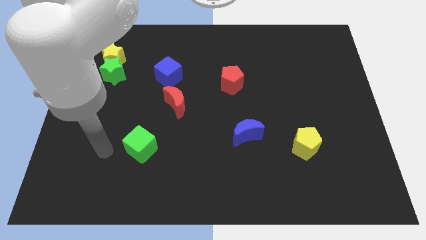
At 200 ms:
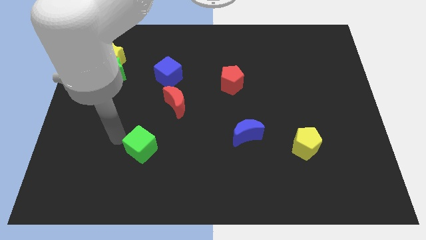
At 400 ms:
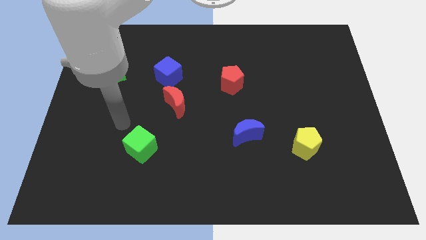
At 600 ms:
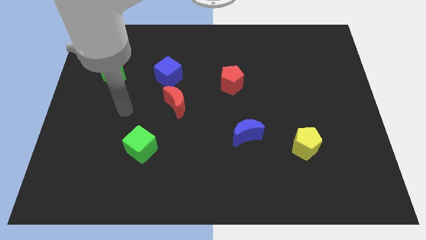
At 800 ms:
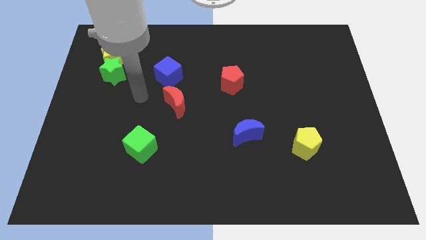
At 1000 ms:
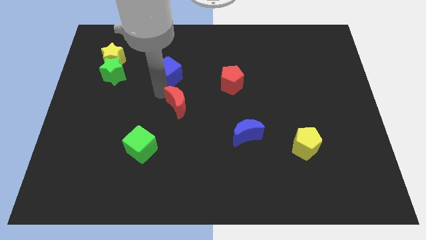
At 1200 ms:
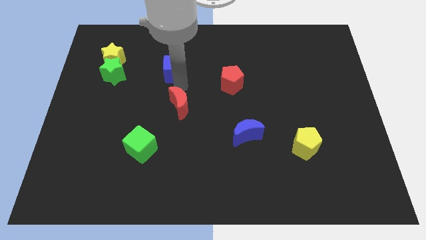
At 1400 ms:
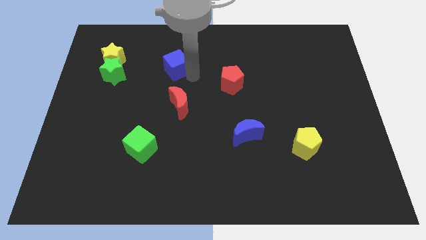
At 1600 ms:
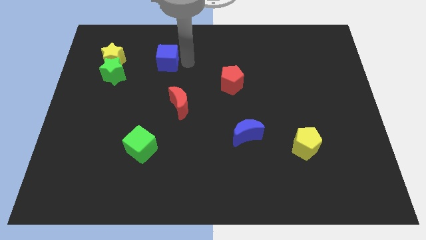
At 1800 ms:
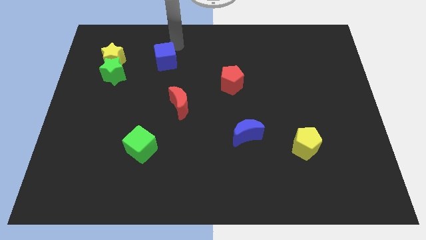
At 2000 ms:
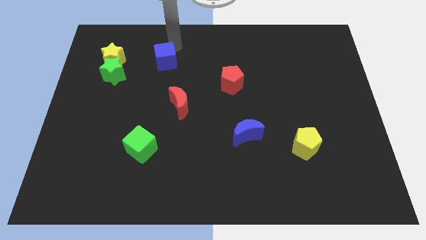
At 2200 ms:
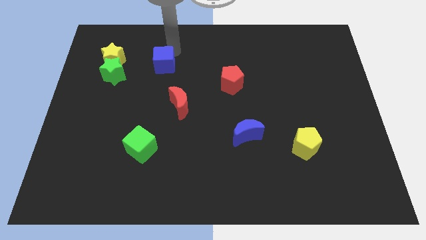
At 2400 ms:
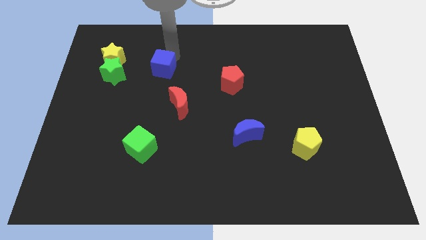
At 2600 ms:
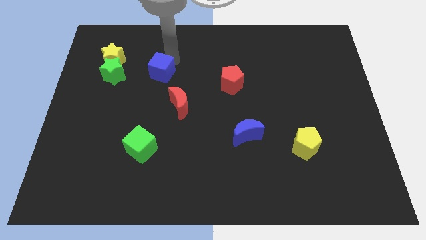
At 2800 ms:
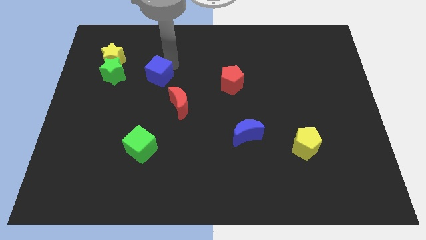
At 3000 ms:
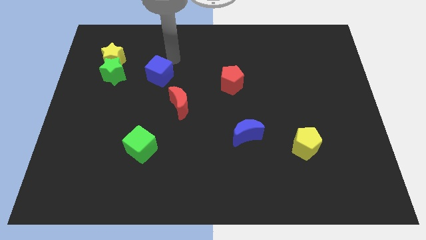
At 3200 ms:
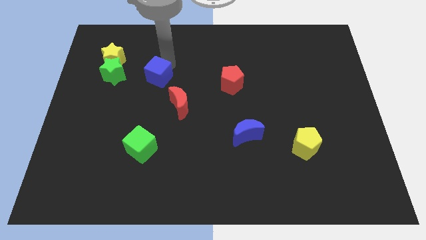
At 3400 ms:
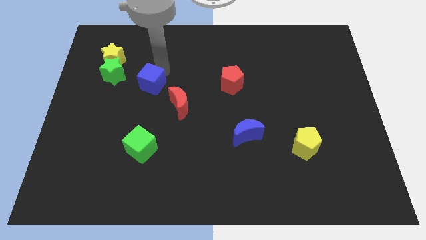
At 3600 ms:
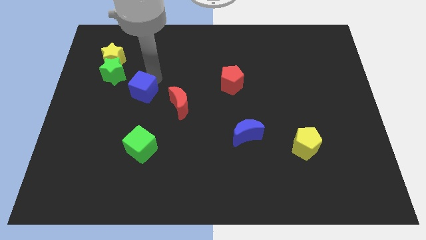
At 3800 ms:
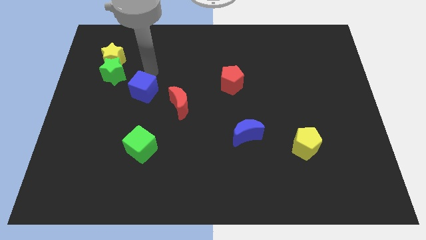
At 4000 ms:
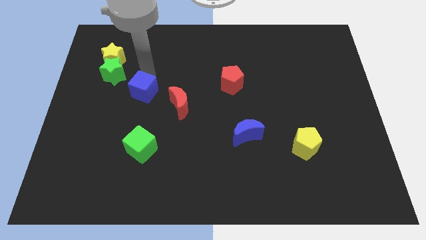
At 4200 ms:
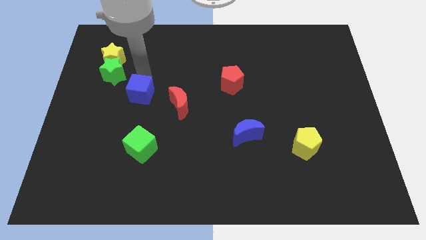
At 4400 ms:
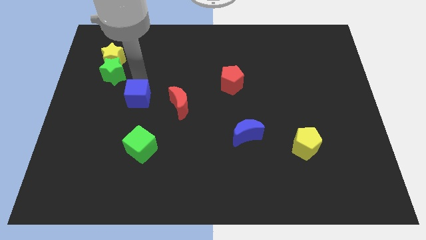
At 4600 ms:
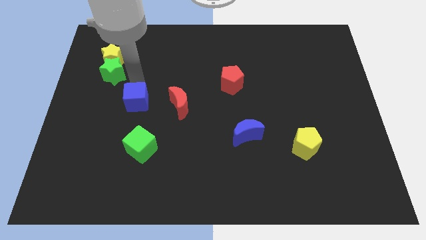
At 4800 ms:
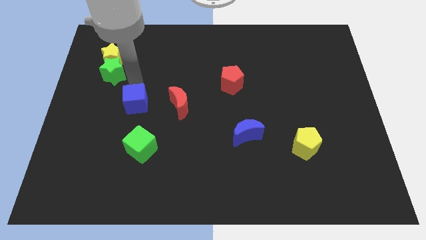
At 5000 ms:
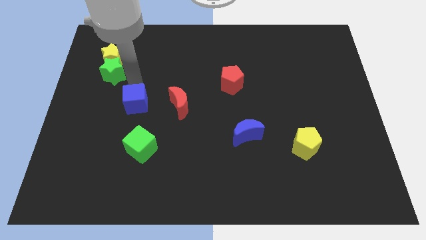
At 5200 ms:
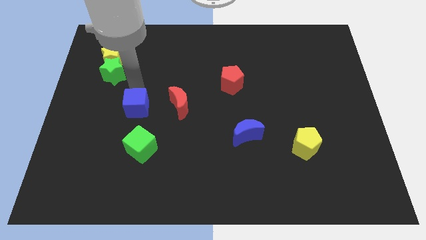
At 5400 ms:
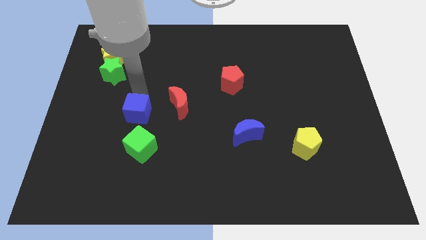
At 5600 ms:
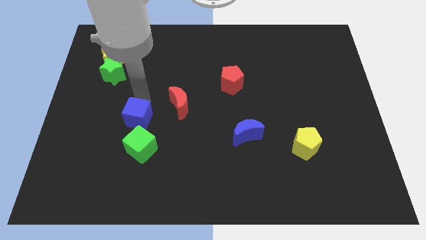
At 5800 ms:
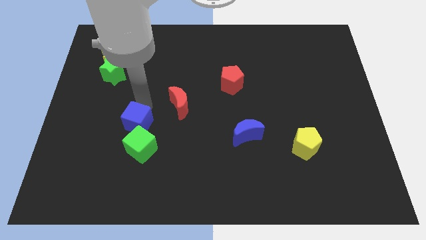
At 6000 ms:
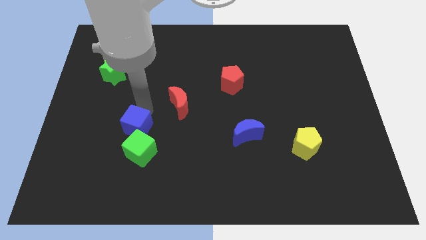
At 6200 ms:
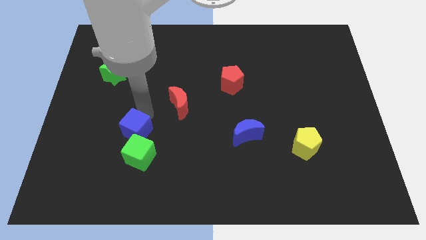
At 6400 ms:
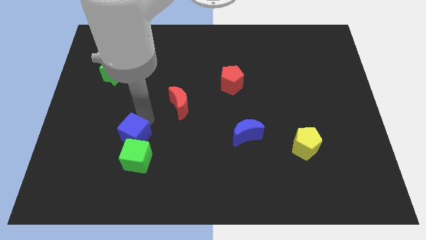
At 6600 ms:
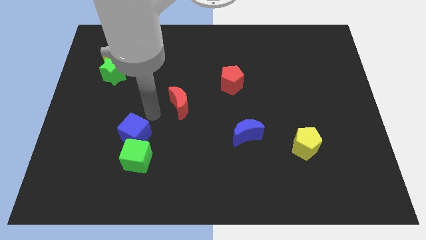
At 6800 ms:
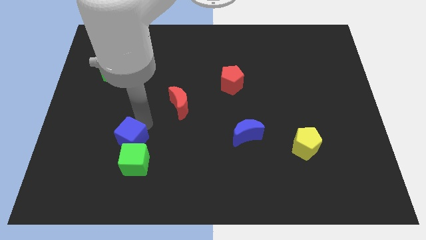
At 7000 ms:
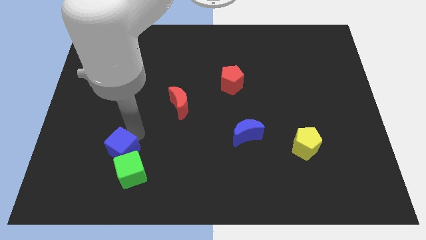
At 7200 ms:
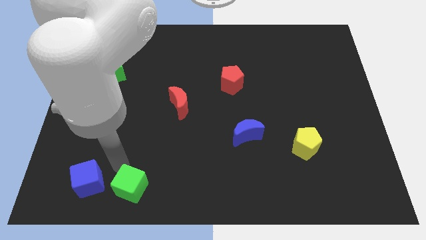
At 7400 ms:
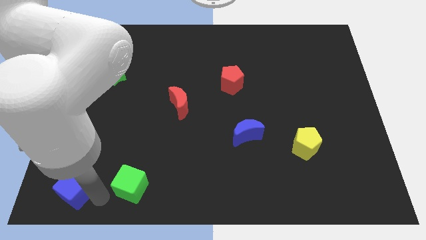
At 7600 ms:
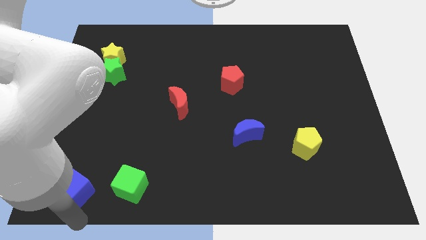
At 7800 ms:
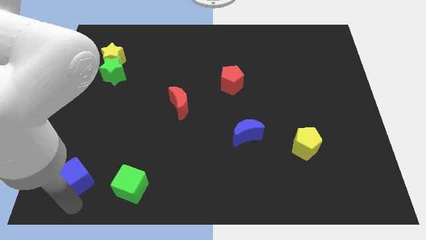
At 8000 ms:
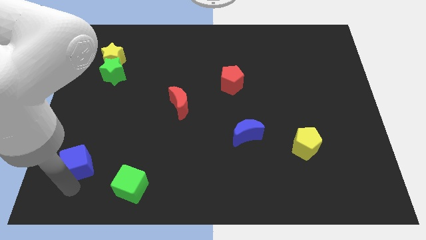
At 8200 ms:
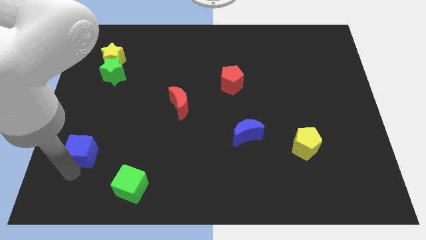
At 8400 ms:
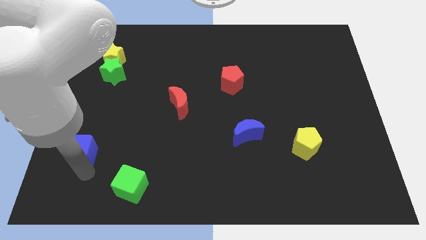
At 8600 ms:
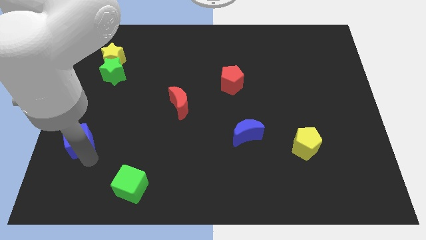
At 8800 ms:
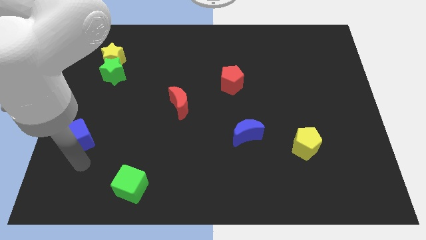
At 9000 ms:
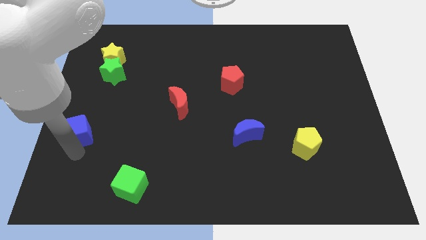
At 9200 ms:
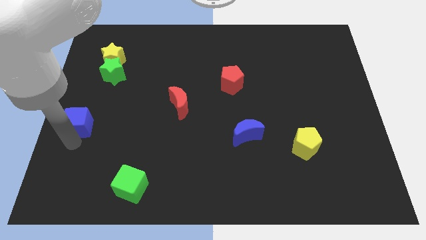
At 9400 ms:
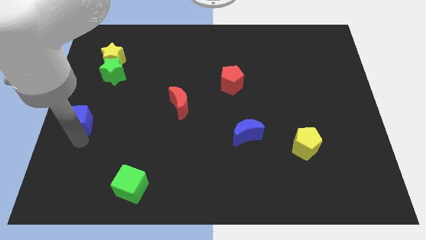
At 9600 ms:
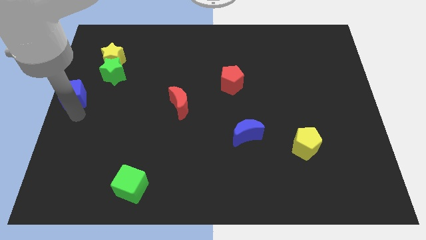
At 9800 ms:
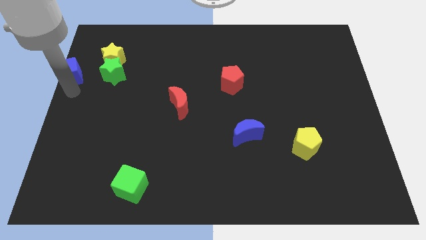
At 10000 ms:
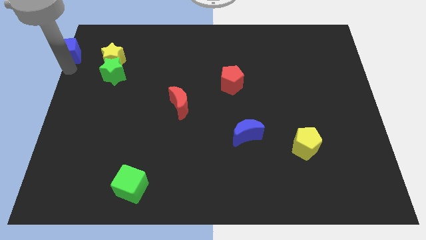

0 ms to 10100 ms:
slide the blue cube to the top left

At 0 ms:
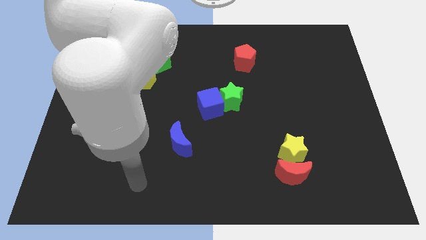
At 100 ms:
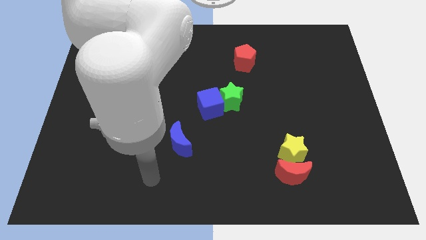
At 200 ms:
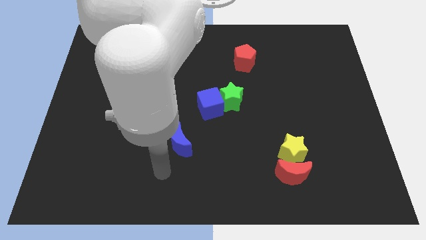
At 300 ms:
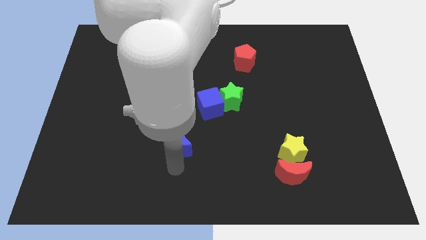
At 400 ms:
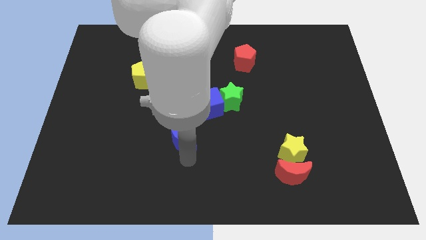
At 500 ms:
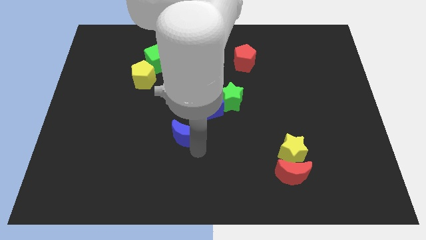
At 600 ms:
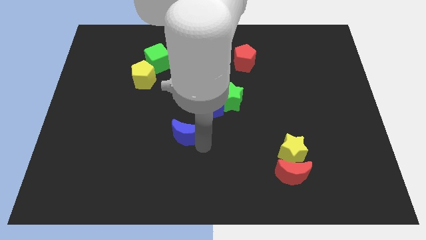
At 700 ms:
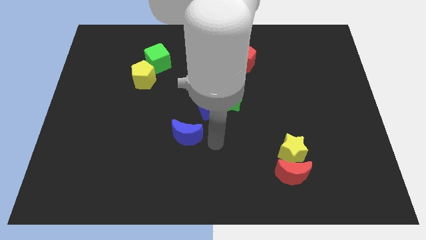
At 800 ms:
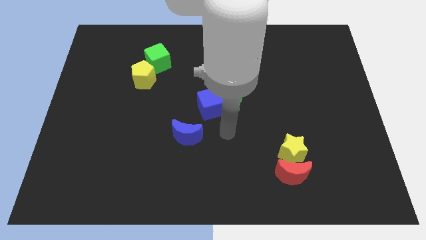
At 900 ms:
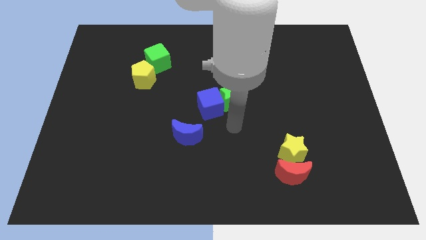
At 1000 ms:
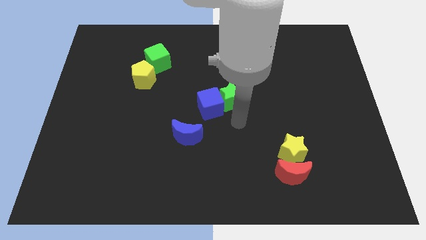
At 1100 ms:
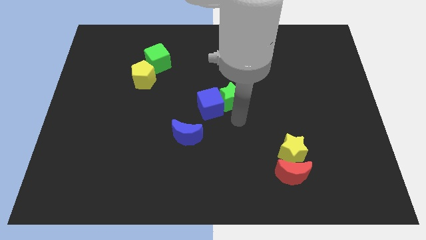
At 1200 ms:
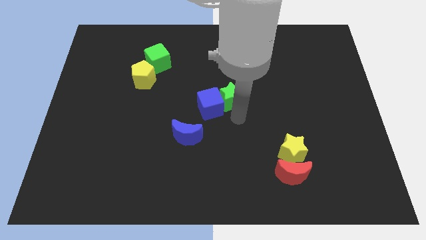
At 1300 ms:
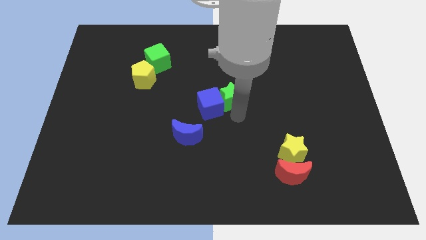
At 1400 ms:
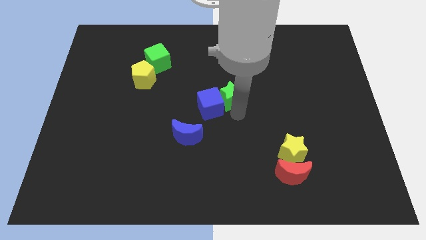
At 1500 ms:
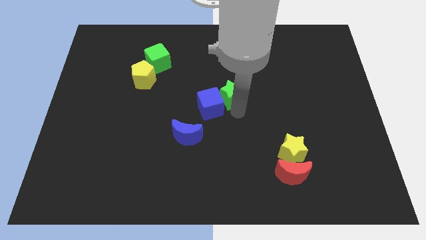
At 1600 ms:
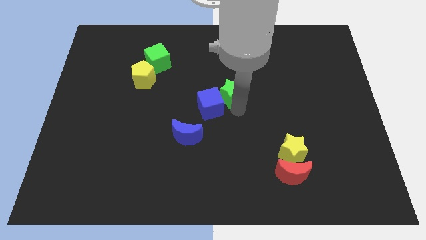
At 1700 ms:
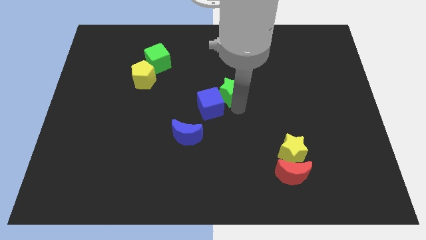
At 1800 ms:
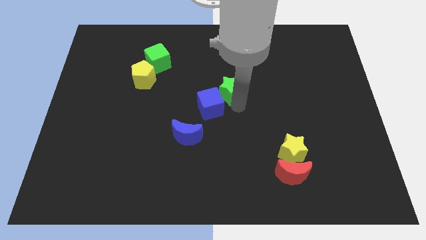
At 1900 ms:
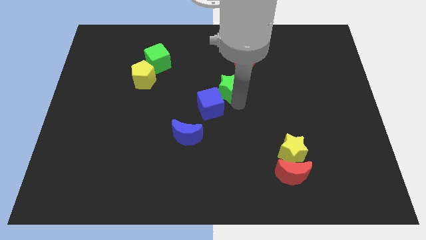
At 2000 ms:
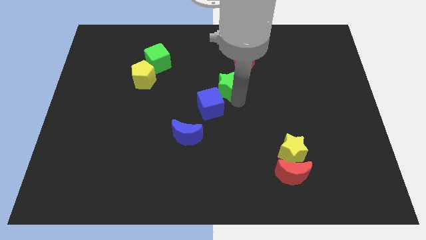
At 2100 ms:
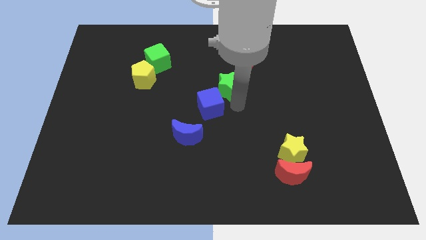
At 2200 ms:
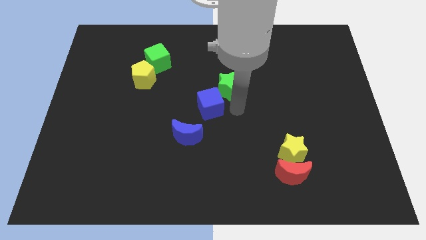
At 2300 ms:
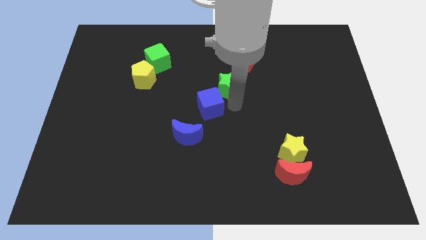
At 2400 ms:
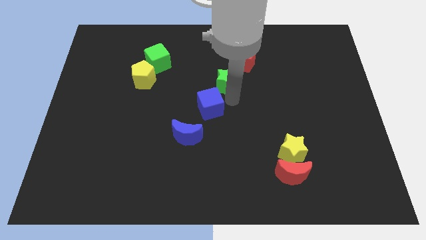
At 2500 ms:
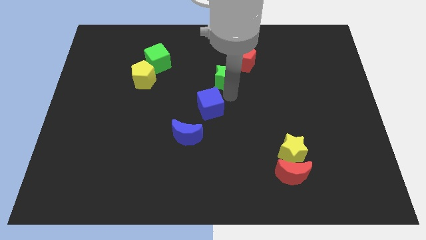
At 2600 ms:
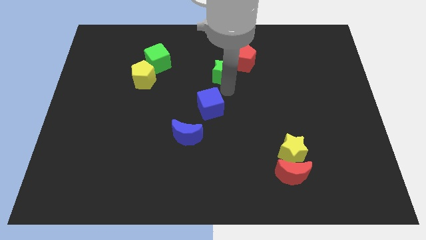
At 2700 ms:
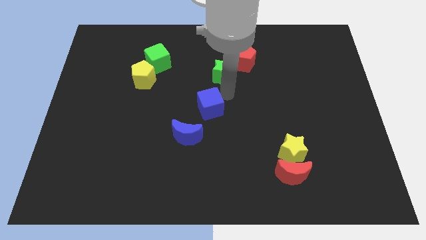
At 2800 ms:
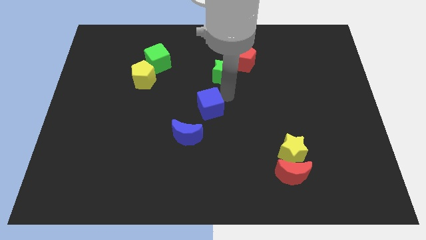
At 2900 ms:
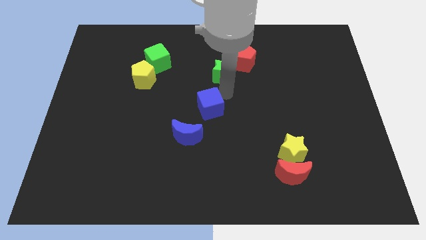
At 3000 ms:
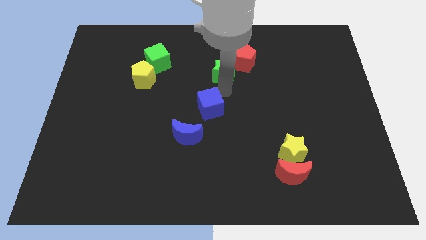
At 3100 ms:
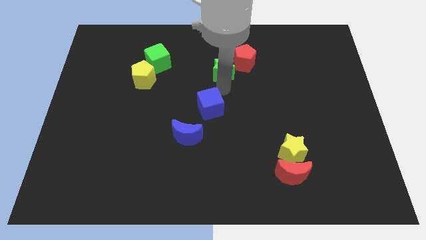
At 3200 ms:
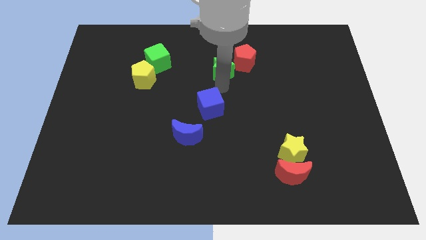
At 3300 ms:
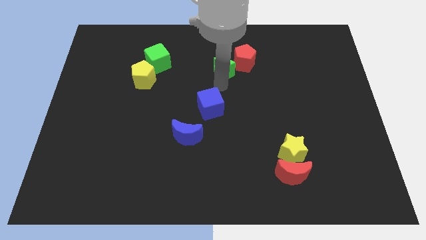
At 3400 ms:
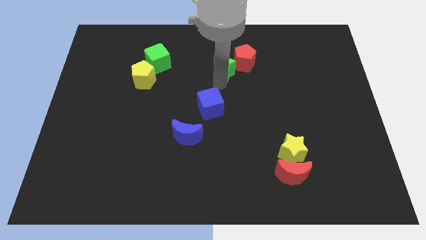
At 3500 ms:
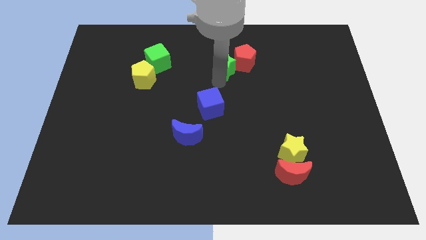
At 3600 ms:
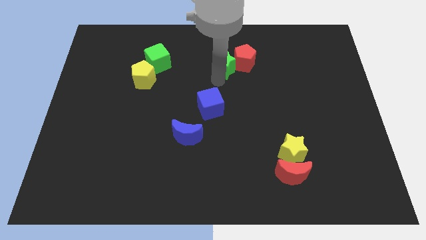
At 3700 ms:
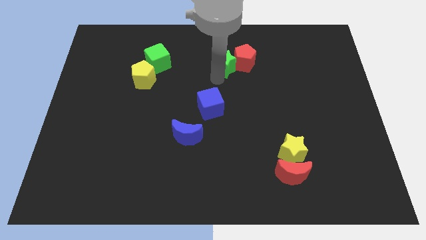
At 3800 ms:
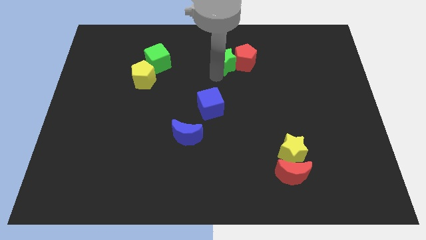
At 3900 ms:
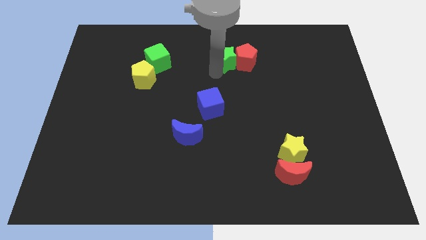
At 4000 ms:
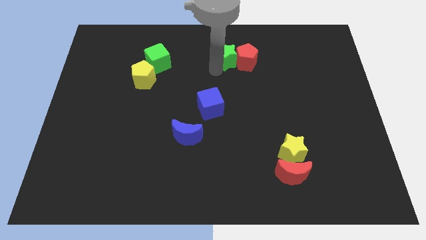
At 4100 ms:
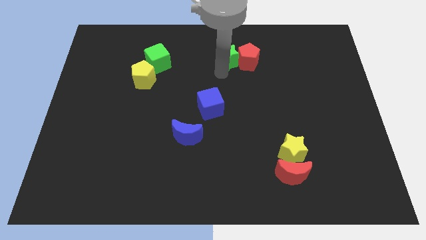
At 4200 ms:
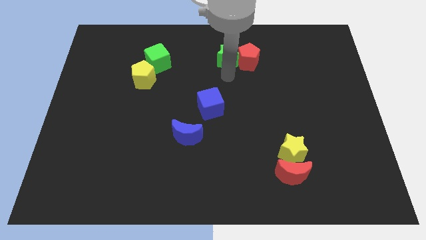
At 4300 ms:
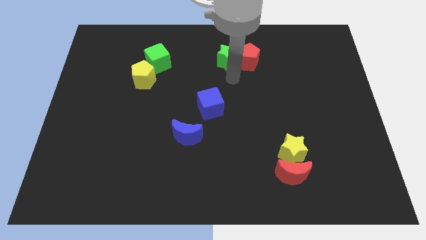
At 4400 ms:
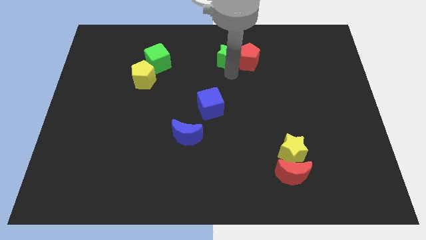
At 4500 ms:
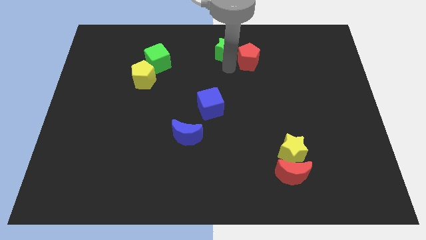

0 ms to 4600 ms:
push the green star to the top
